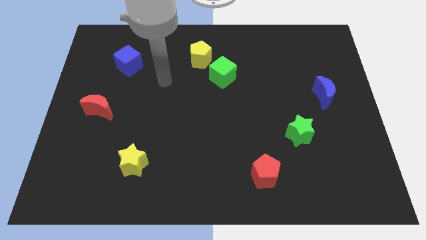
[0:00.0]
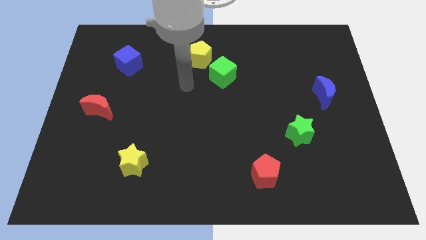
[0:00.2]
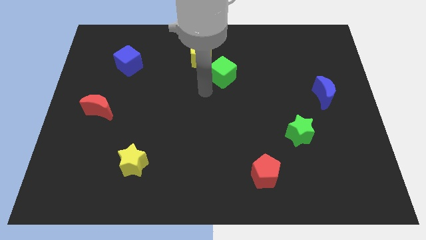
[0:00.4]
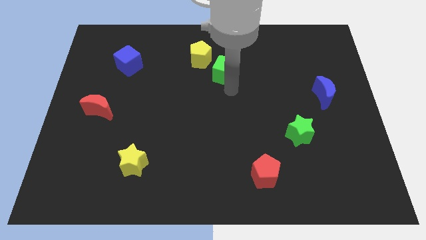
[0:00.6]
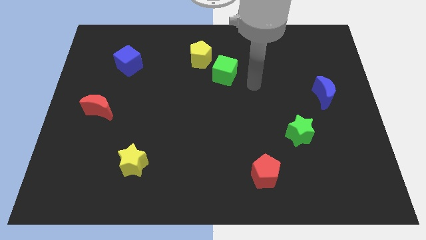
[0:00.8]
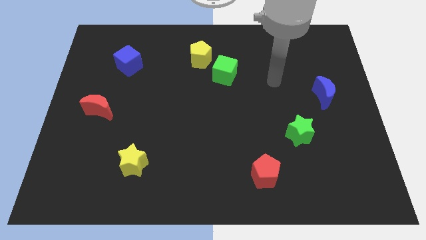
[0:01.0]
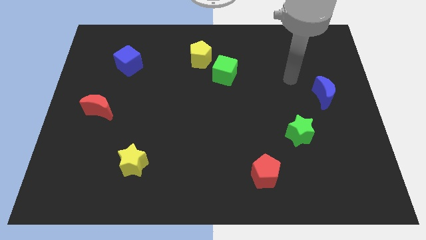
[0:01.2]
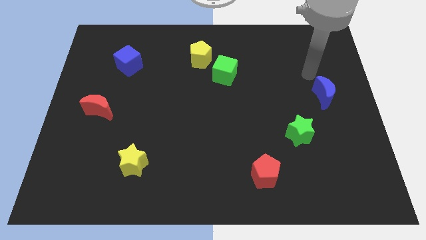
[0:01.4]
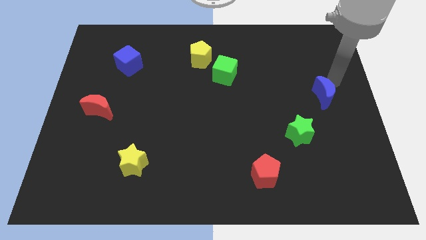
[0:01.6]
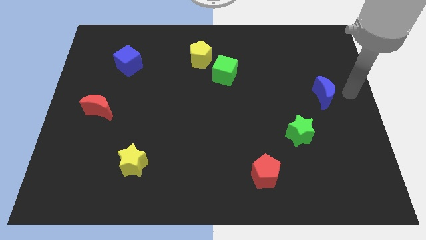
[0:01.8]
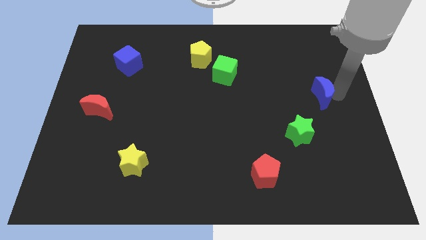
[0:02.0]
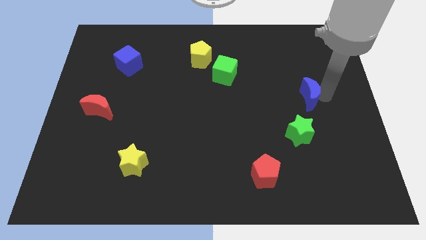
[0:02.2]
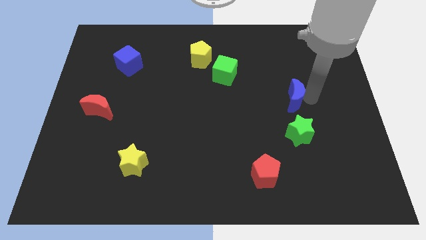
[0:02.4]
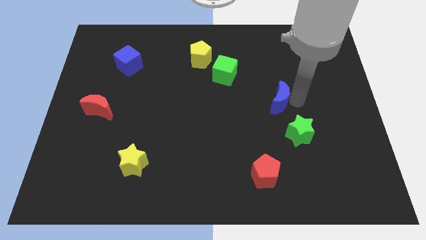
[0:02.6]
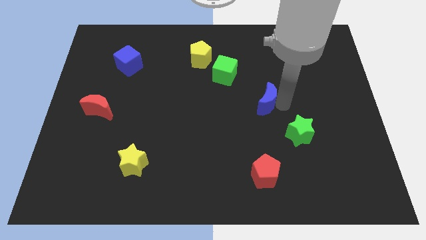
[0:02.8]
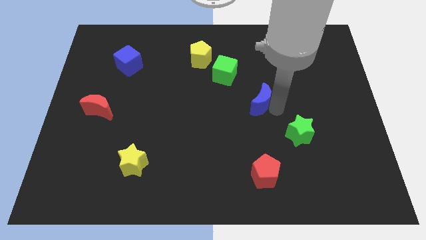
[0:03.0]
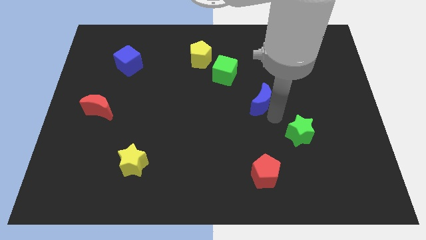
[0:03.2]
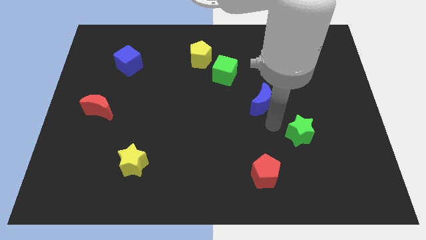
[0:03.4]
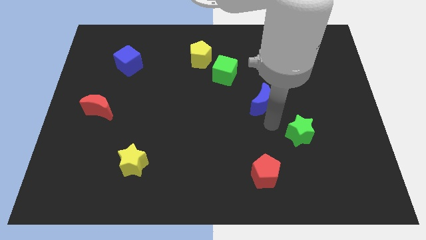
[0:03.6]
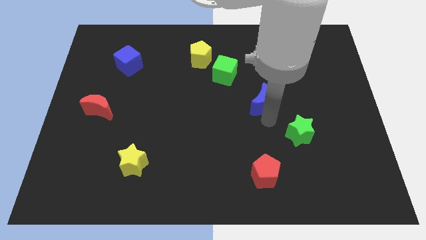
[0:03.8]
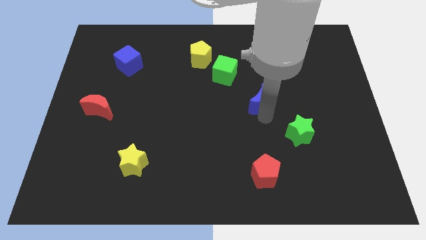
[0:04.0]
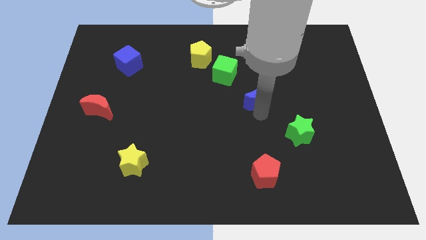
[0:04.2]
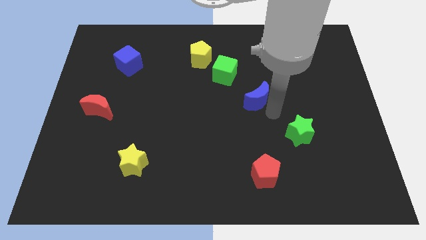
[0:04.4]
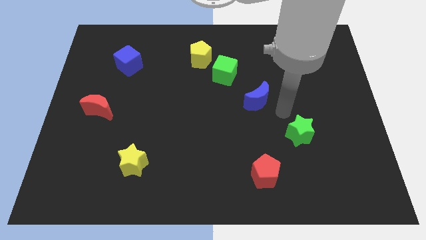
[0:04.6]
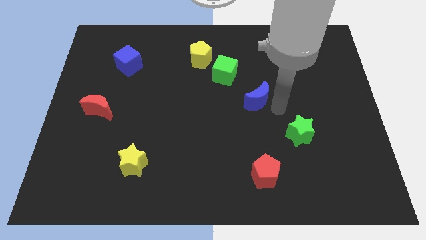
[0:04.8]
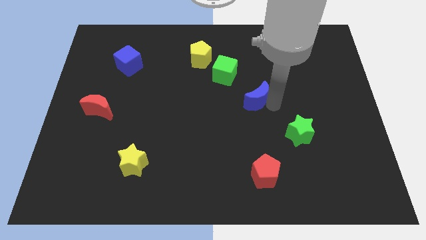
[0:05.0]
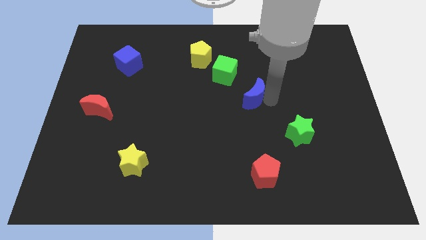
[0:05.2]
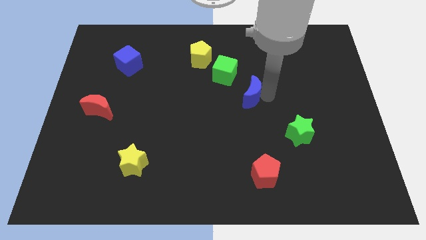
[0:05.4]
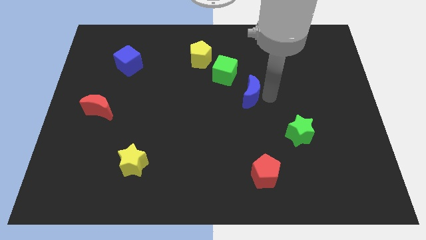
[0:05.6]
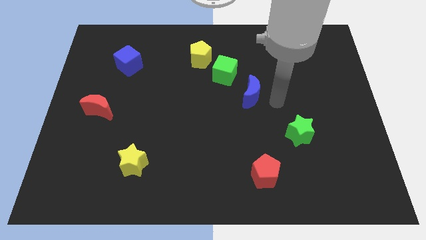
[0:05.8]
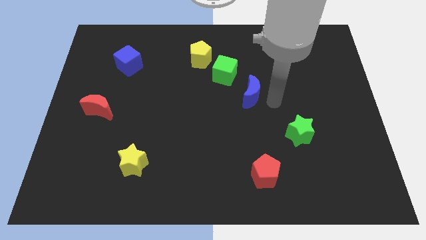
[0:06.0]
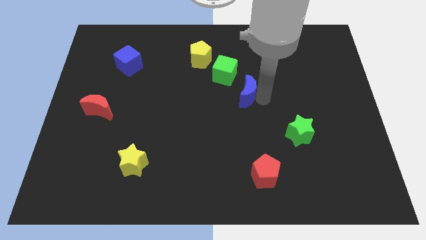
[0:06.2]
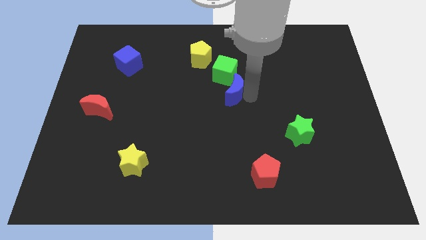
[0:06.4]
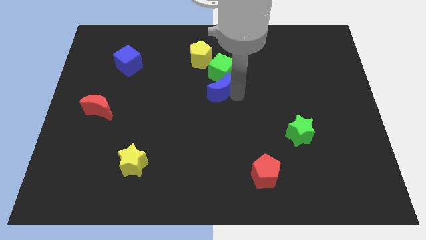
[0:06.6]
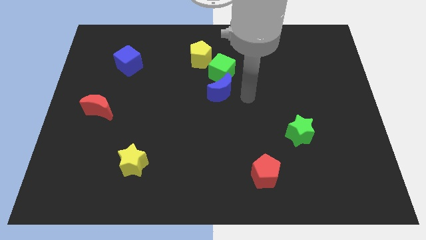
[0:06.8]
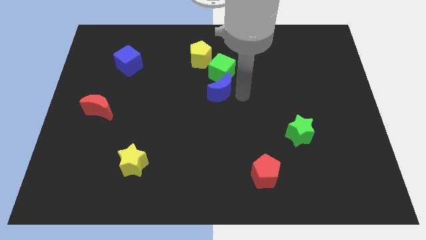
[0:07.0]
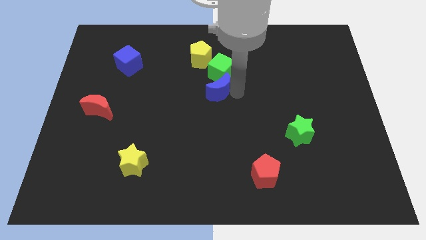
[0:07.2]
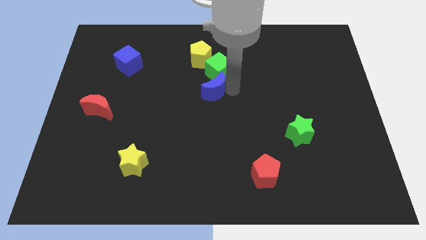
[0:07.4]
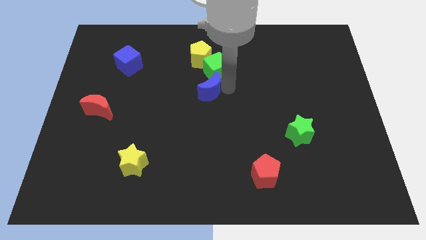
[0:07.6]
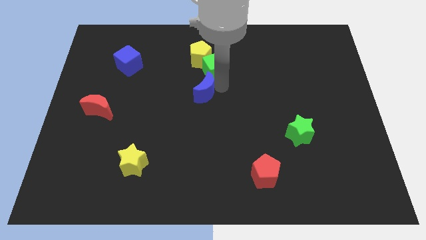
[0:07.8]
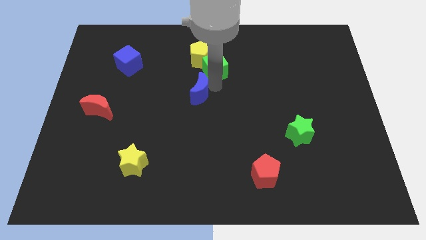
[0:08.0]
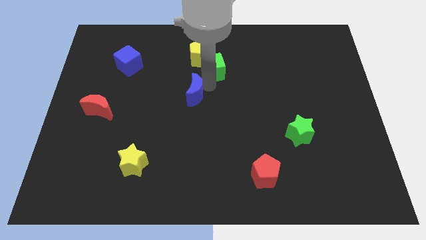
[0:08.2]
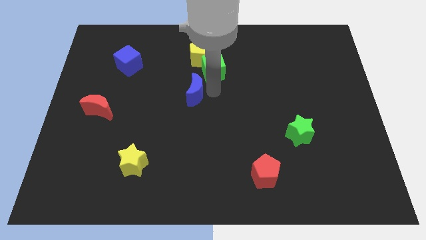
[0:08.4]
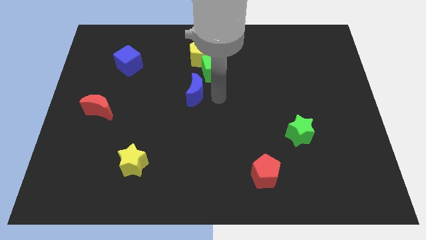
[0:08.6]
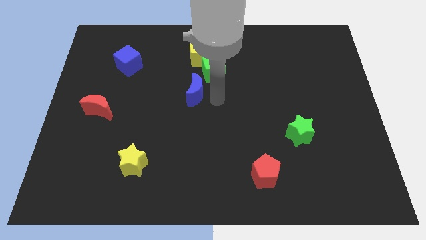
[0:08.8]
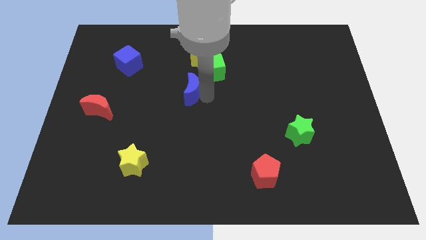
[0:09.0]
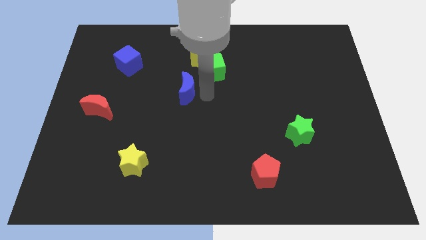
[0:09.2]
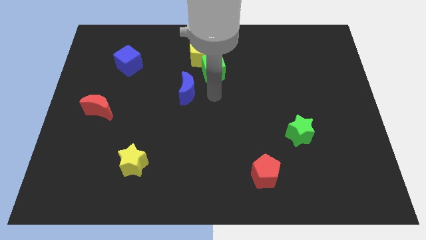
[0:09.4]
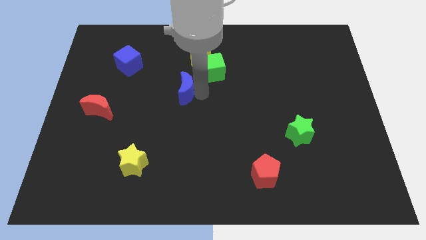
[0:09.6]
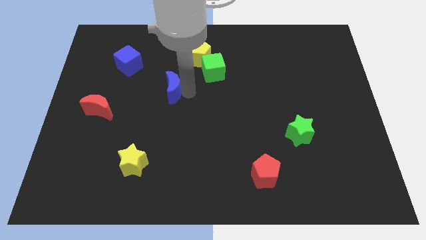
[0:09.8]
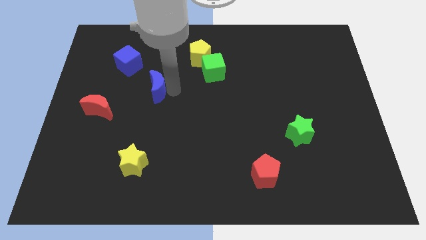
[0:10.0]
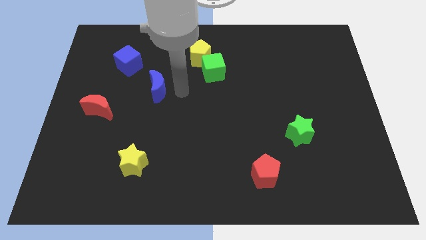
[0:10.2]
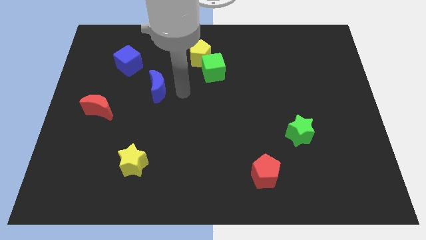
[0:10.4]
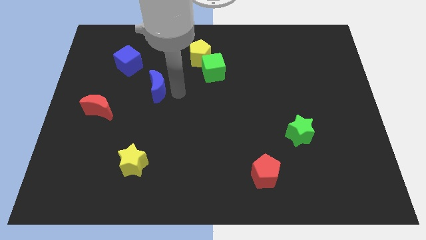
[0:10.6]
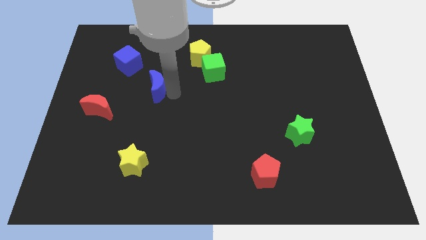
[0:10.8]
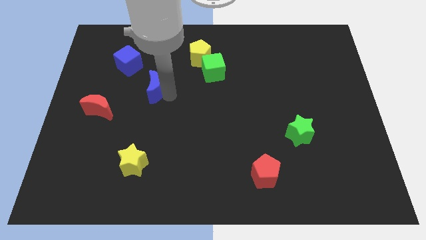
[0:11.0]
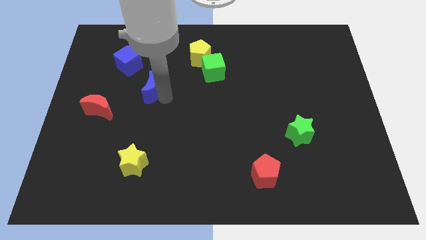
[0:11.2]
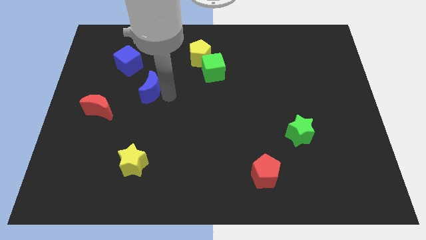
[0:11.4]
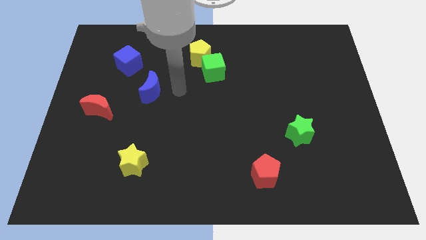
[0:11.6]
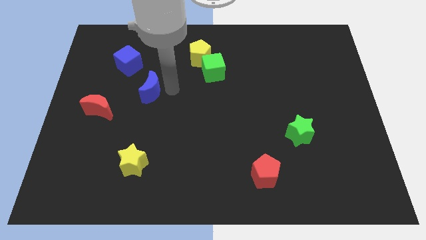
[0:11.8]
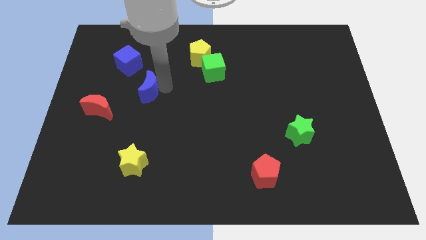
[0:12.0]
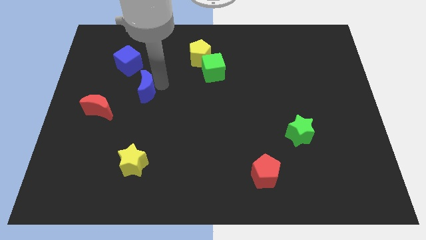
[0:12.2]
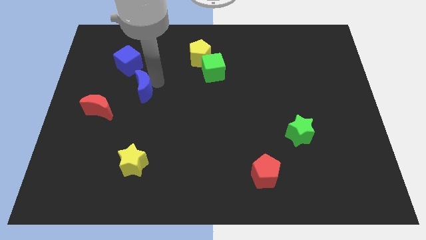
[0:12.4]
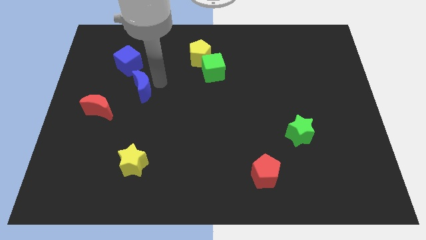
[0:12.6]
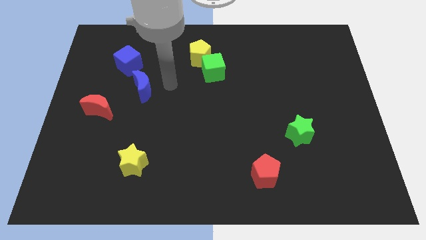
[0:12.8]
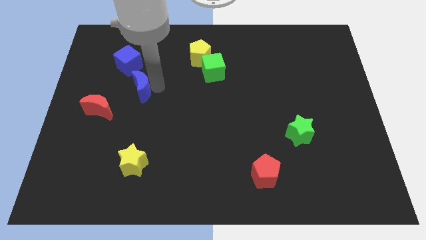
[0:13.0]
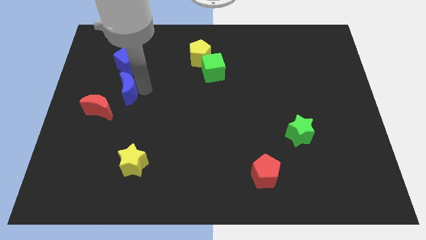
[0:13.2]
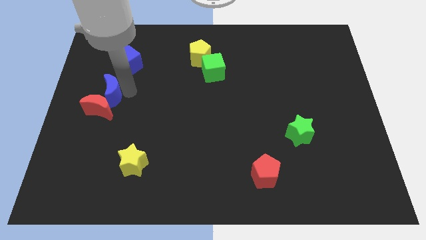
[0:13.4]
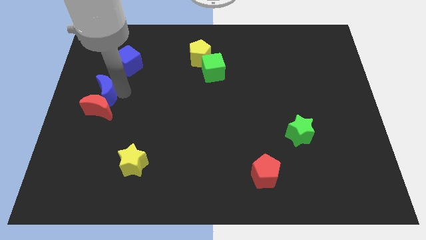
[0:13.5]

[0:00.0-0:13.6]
put the blue moon to the center left
